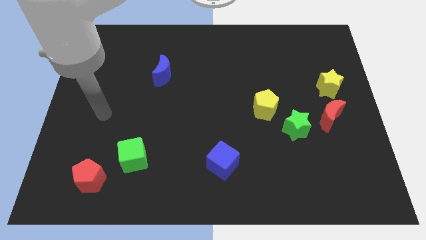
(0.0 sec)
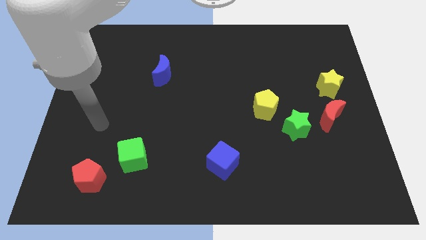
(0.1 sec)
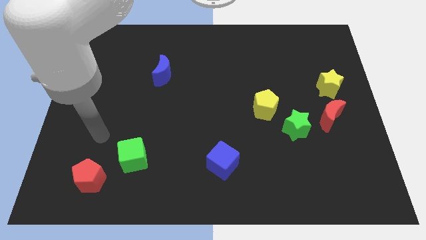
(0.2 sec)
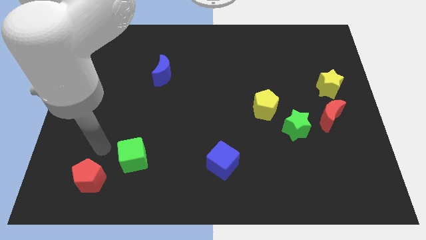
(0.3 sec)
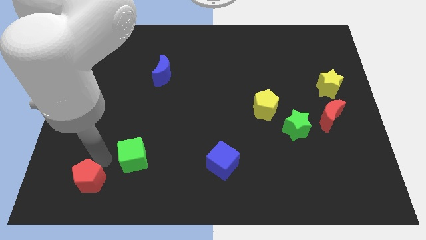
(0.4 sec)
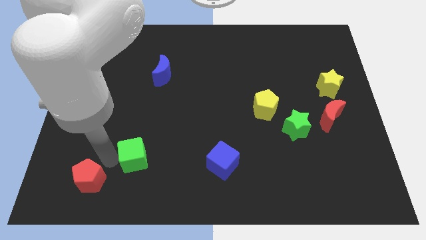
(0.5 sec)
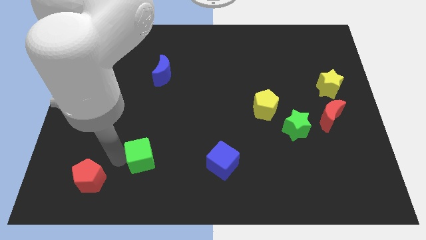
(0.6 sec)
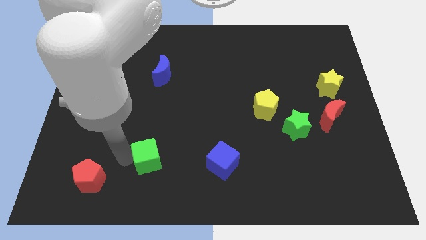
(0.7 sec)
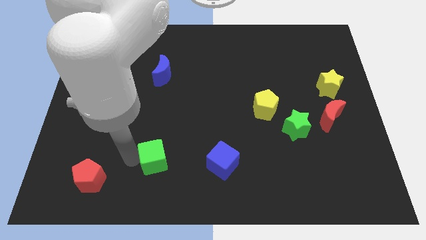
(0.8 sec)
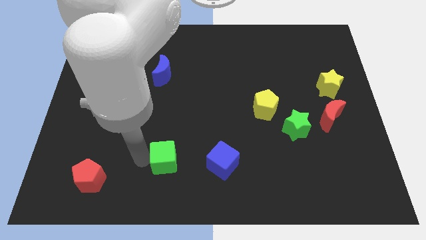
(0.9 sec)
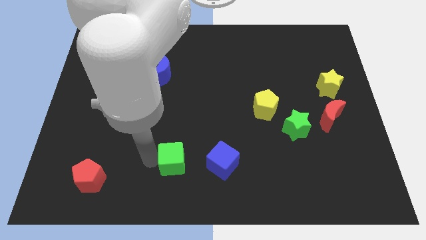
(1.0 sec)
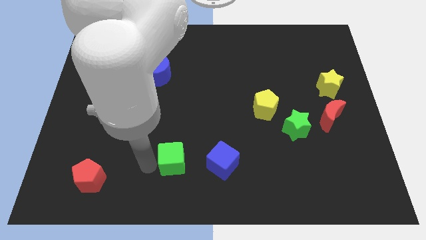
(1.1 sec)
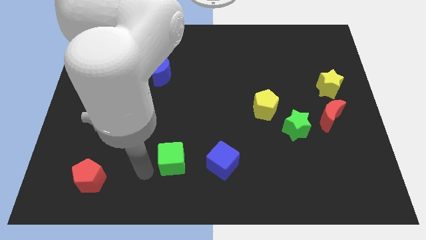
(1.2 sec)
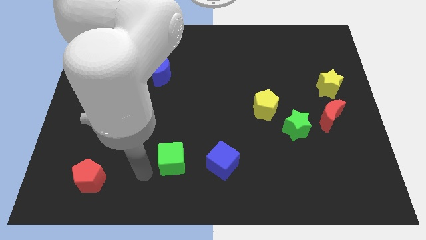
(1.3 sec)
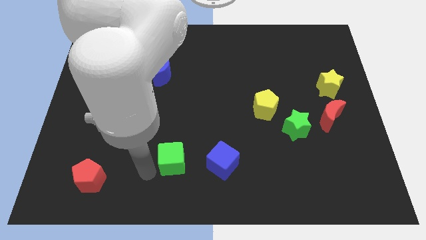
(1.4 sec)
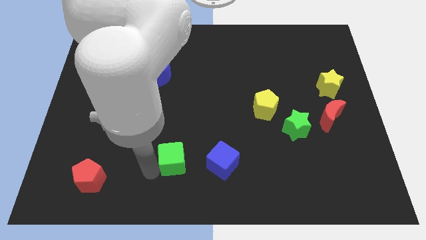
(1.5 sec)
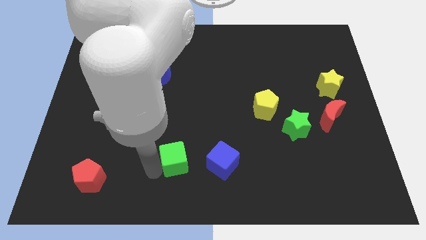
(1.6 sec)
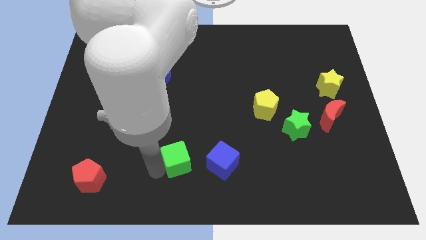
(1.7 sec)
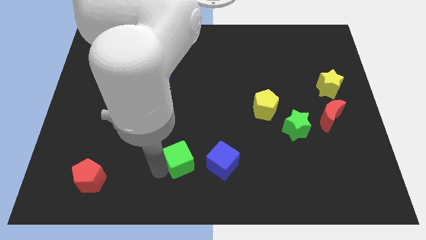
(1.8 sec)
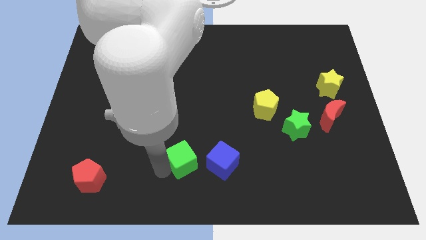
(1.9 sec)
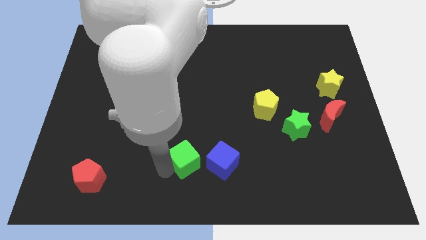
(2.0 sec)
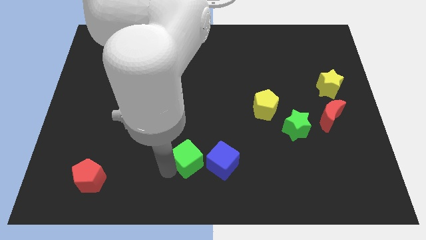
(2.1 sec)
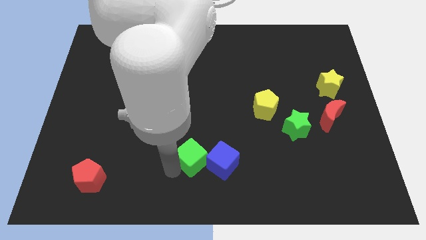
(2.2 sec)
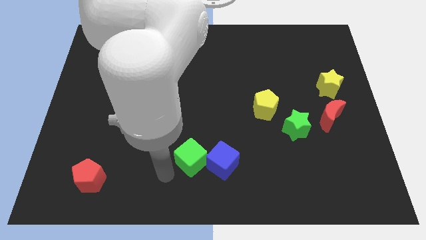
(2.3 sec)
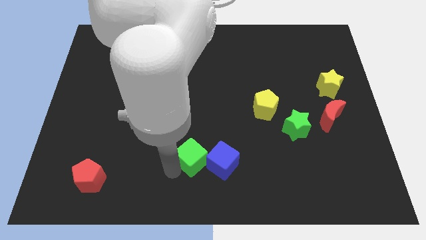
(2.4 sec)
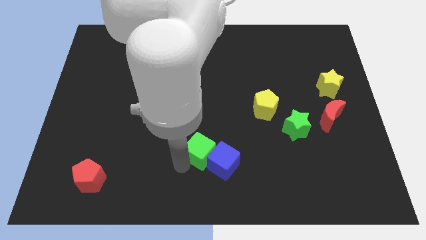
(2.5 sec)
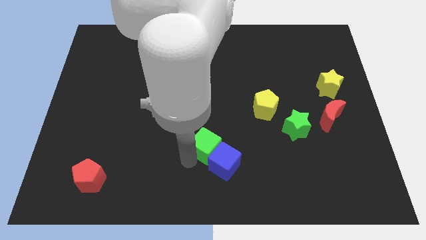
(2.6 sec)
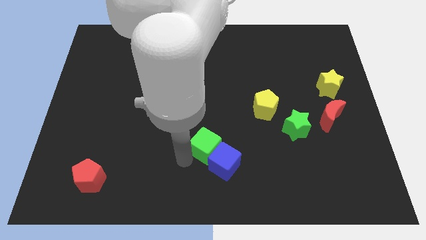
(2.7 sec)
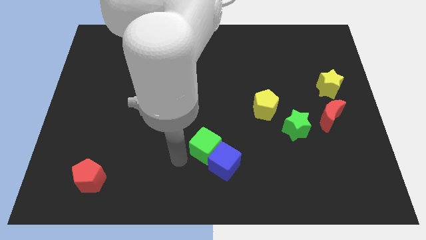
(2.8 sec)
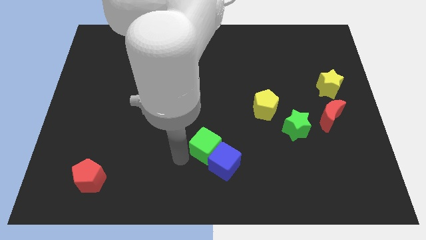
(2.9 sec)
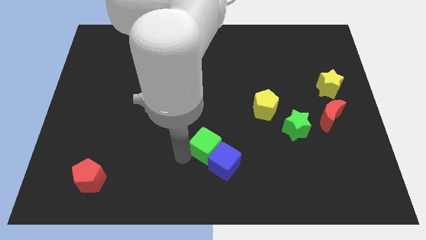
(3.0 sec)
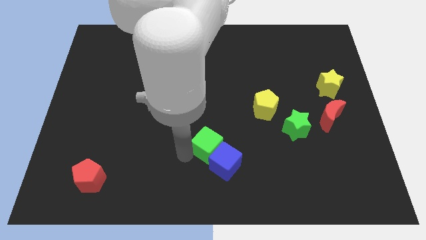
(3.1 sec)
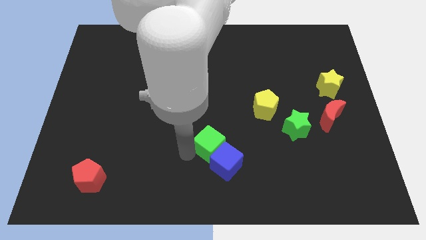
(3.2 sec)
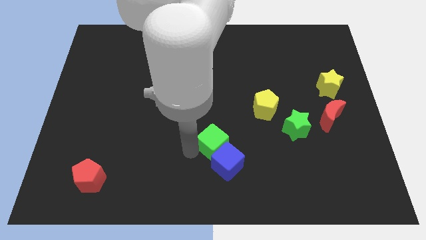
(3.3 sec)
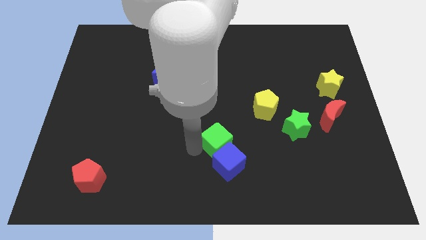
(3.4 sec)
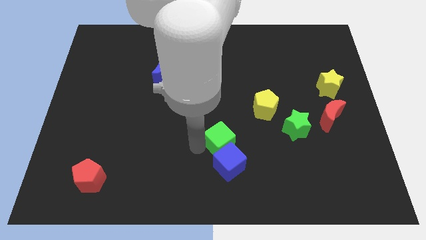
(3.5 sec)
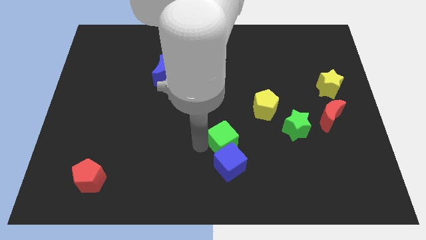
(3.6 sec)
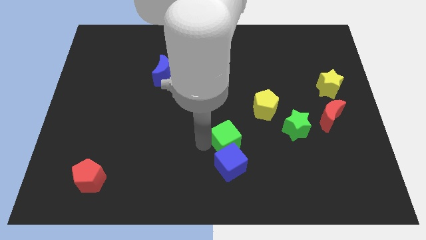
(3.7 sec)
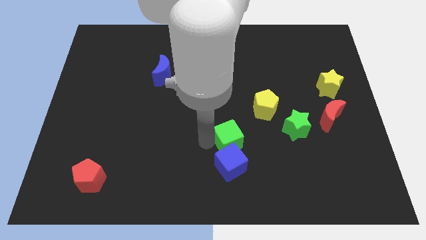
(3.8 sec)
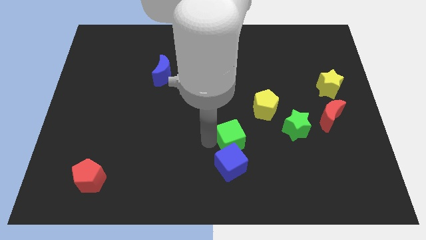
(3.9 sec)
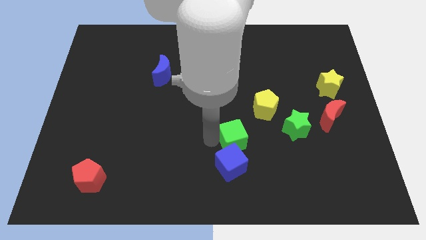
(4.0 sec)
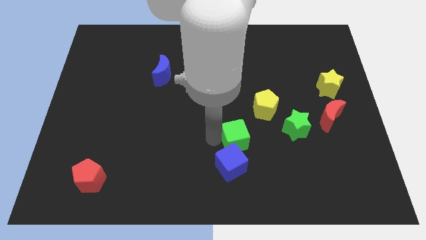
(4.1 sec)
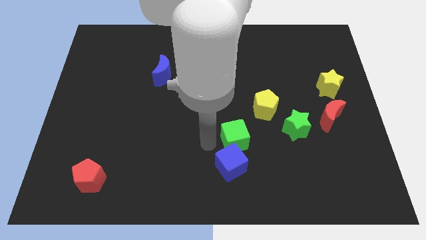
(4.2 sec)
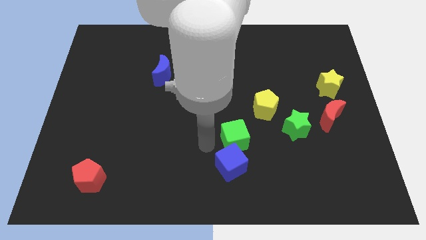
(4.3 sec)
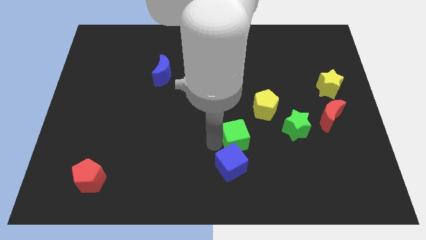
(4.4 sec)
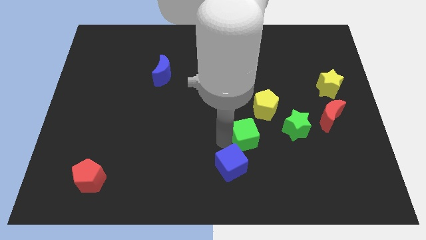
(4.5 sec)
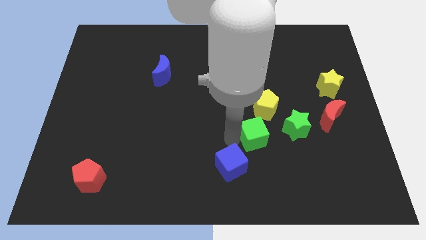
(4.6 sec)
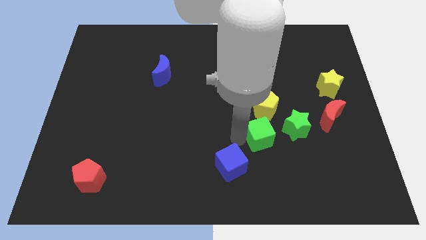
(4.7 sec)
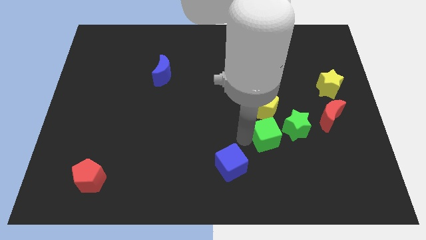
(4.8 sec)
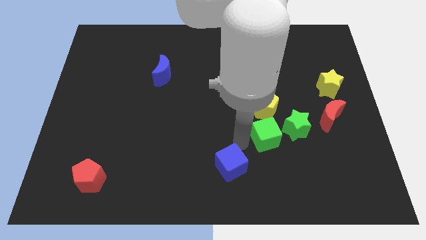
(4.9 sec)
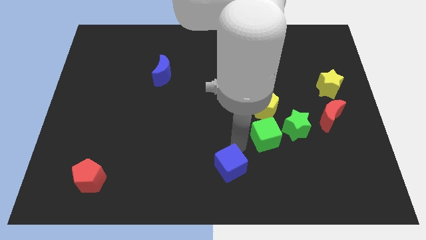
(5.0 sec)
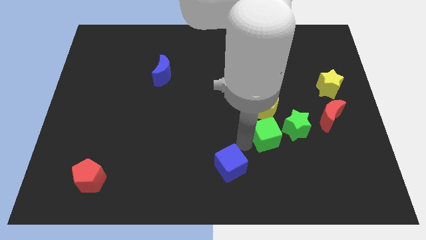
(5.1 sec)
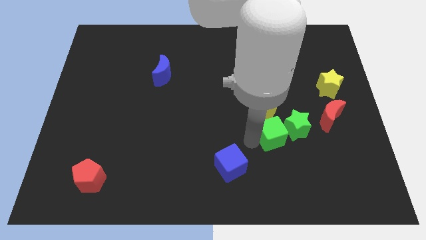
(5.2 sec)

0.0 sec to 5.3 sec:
slide the green cube to the green star

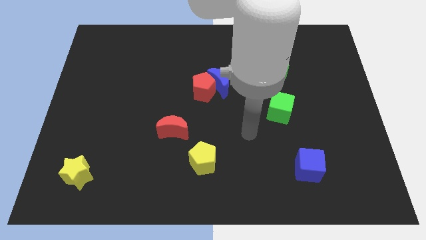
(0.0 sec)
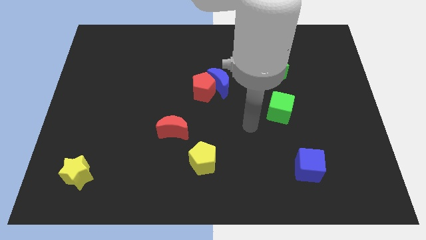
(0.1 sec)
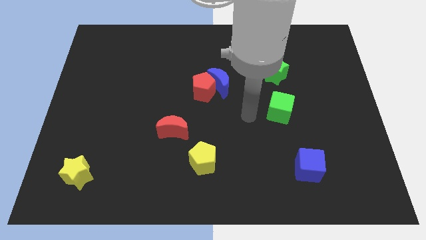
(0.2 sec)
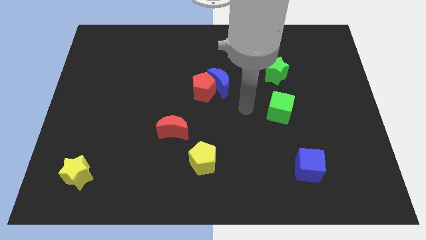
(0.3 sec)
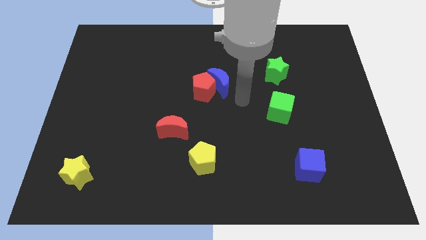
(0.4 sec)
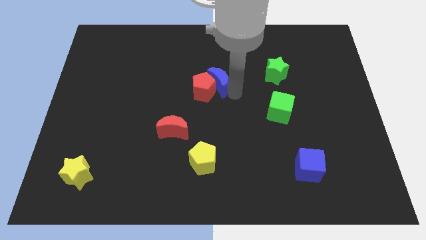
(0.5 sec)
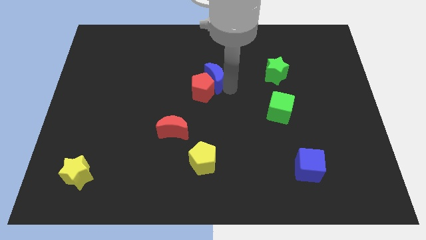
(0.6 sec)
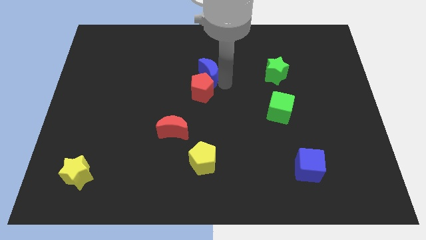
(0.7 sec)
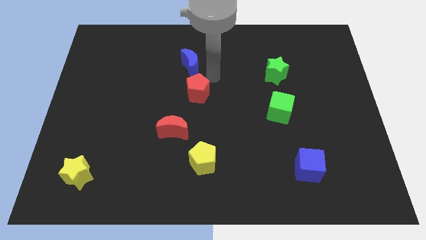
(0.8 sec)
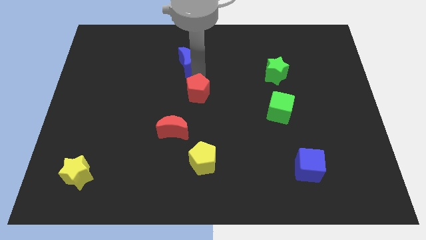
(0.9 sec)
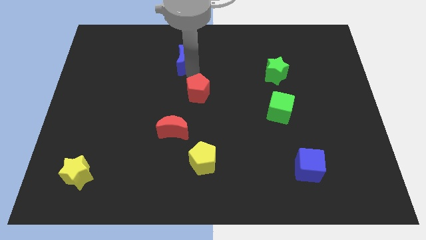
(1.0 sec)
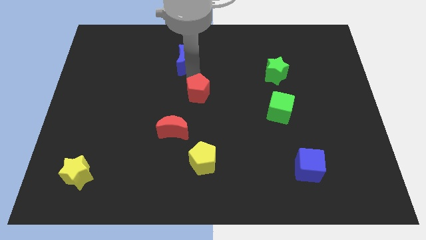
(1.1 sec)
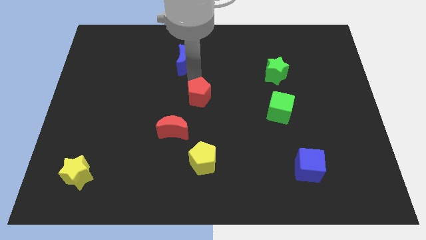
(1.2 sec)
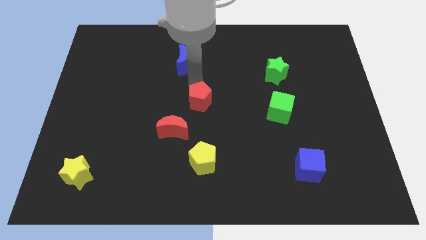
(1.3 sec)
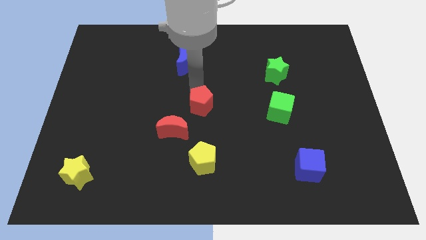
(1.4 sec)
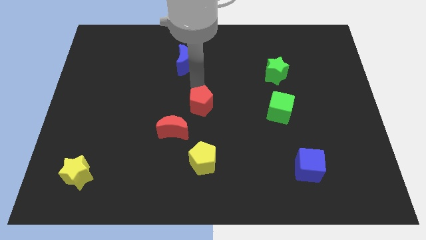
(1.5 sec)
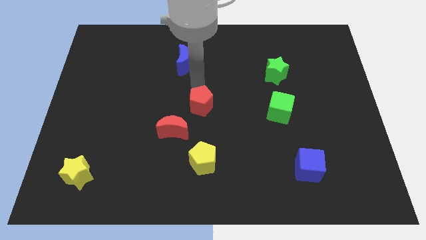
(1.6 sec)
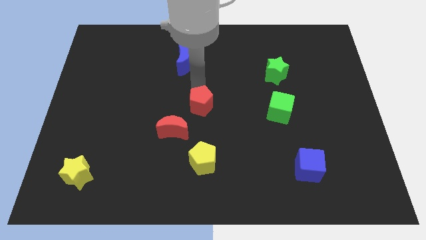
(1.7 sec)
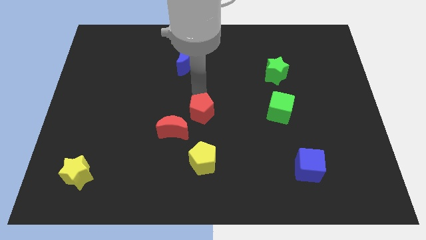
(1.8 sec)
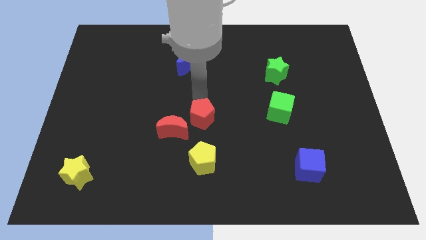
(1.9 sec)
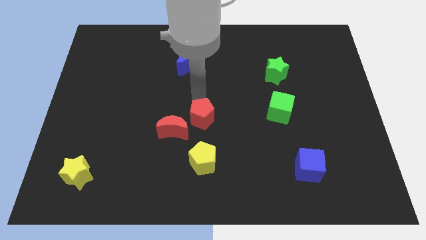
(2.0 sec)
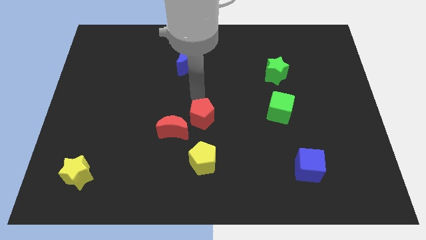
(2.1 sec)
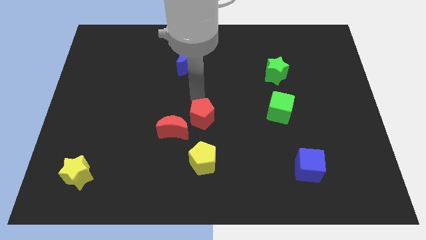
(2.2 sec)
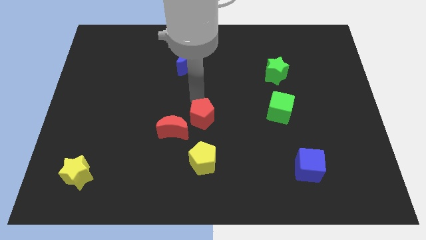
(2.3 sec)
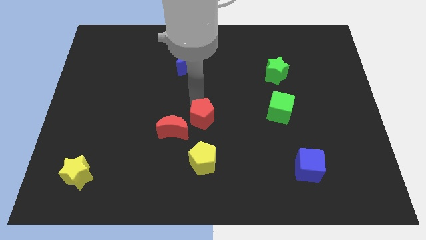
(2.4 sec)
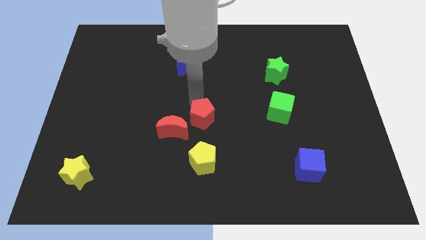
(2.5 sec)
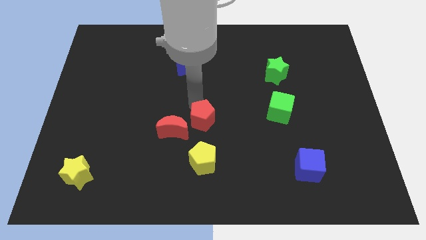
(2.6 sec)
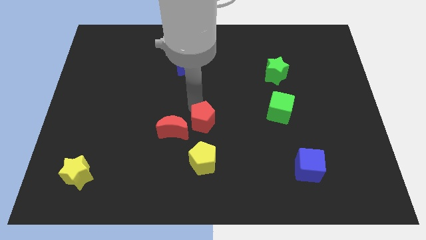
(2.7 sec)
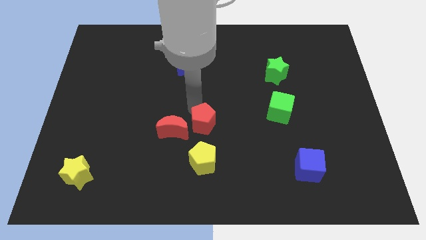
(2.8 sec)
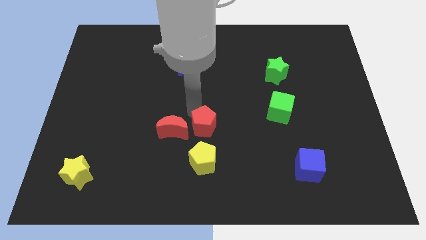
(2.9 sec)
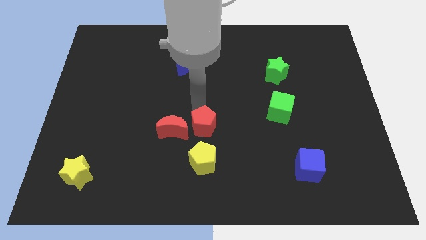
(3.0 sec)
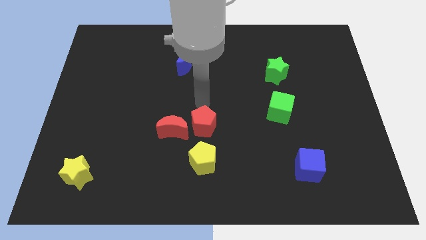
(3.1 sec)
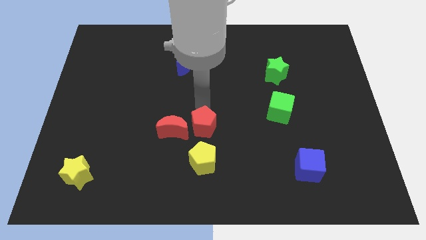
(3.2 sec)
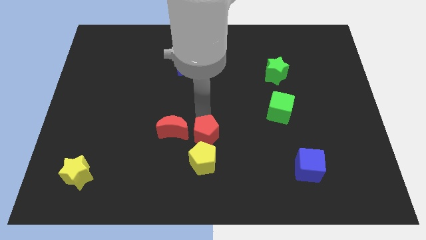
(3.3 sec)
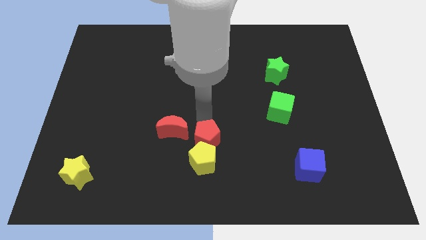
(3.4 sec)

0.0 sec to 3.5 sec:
move the red pentagon to the yellow pentagon
